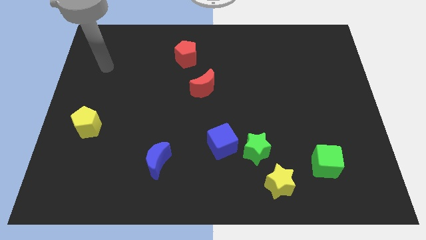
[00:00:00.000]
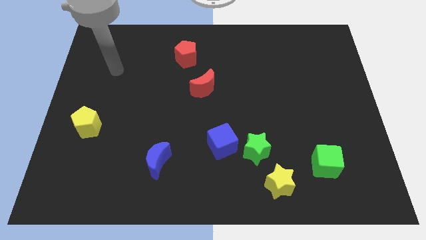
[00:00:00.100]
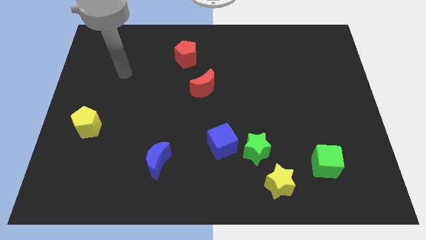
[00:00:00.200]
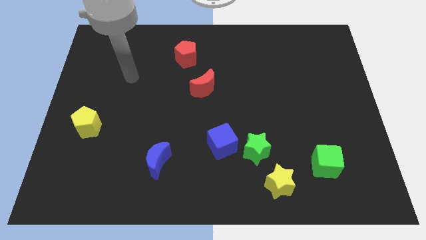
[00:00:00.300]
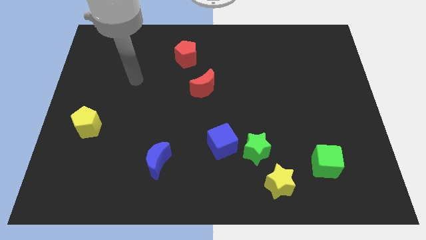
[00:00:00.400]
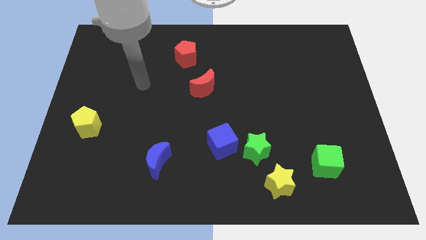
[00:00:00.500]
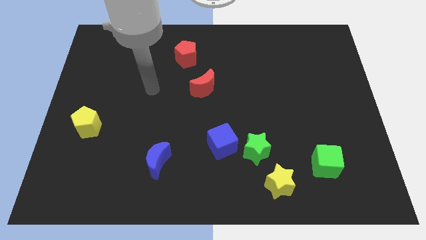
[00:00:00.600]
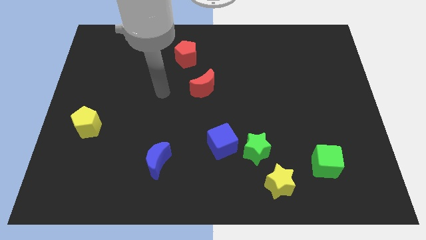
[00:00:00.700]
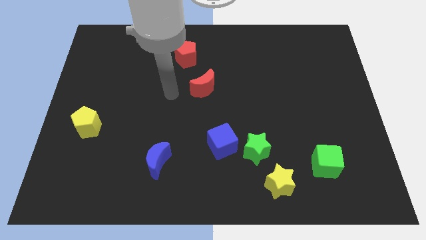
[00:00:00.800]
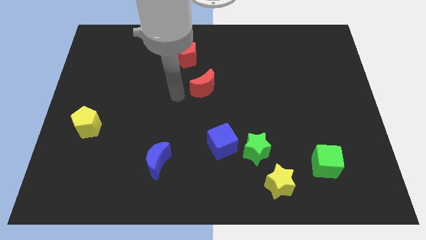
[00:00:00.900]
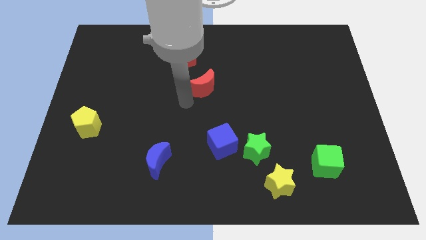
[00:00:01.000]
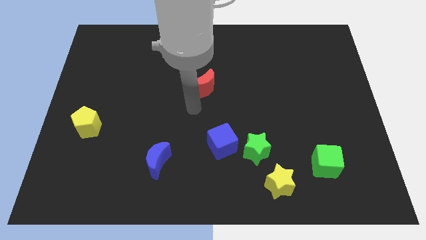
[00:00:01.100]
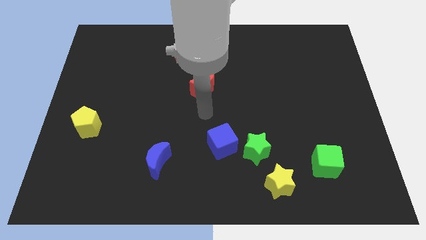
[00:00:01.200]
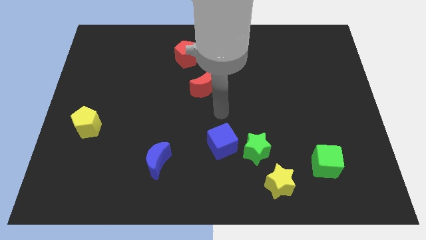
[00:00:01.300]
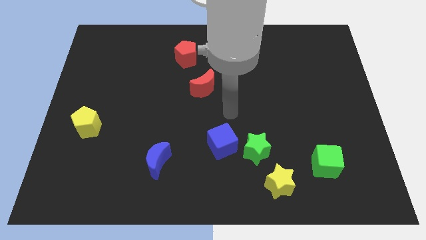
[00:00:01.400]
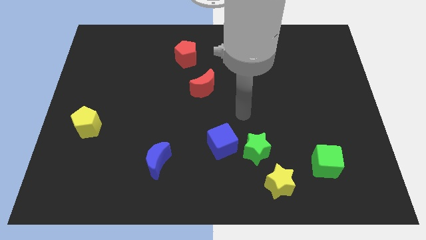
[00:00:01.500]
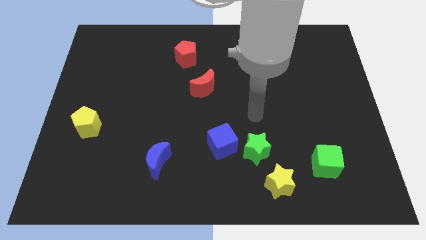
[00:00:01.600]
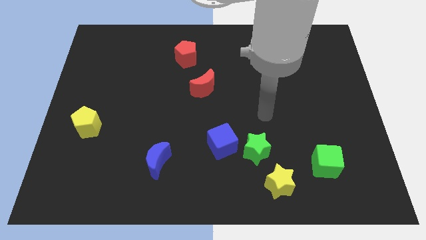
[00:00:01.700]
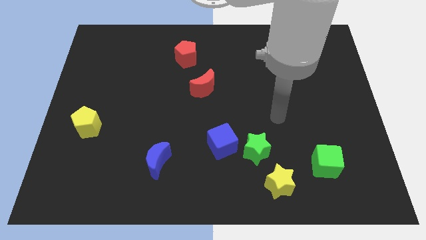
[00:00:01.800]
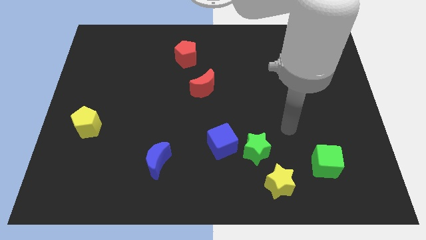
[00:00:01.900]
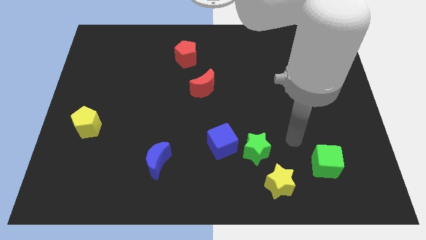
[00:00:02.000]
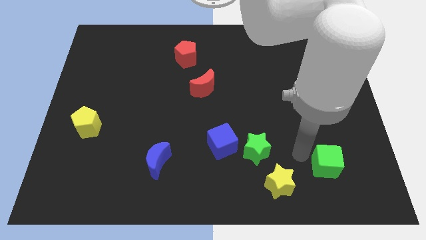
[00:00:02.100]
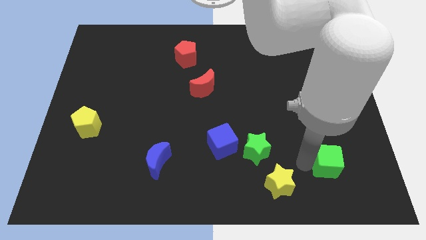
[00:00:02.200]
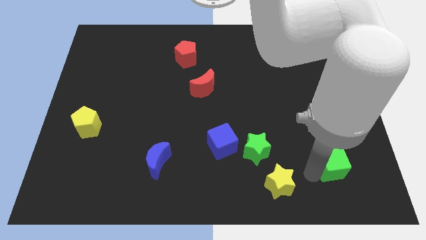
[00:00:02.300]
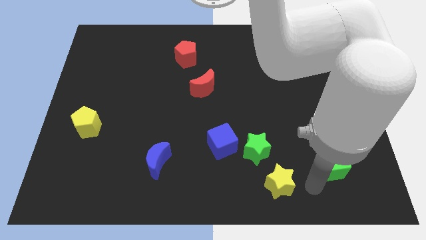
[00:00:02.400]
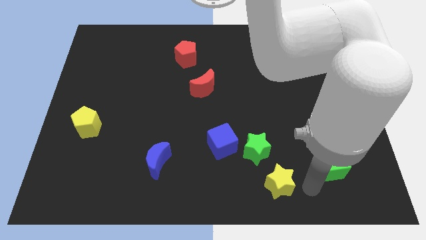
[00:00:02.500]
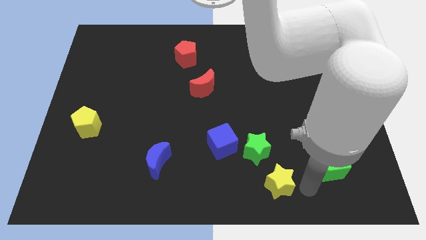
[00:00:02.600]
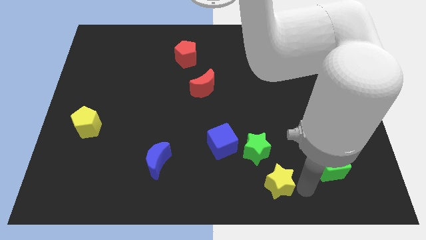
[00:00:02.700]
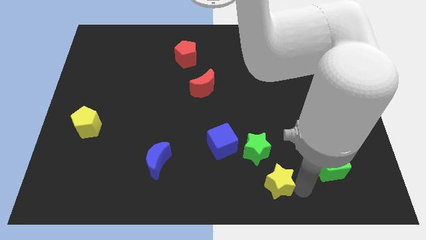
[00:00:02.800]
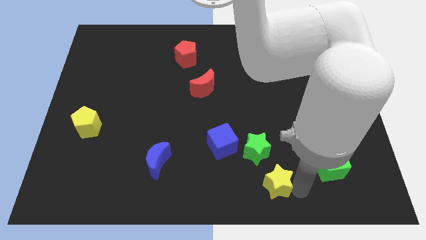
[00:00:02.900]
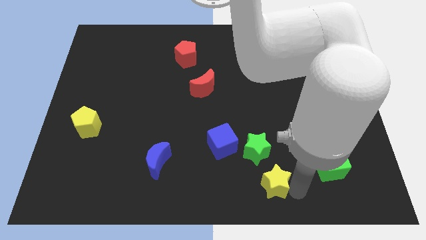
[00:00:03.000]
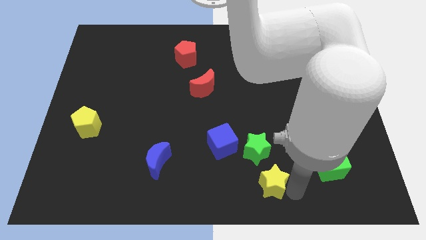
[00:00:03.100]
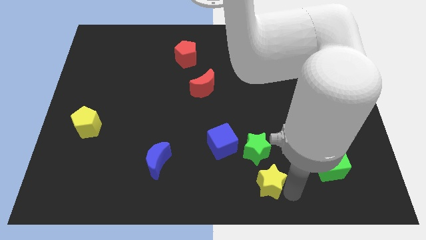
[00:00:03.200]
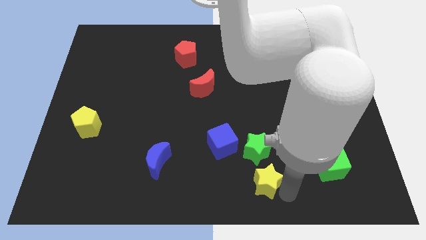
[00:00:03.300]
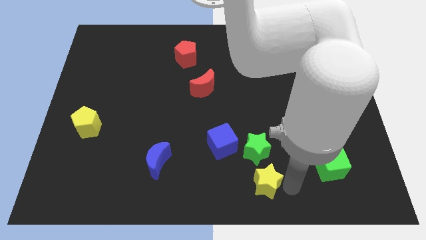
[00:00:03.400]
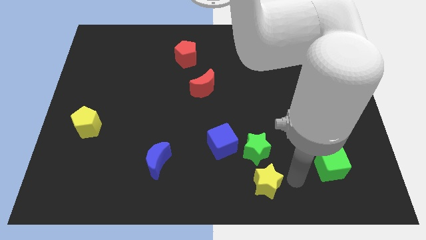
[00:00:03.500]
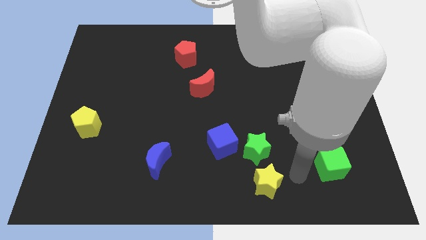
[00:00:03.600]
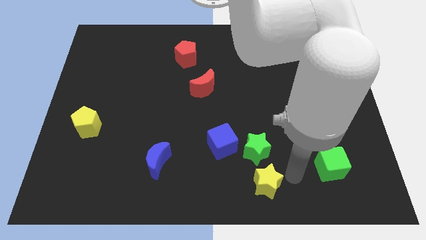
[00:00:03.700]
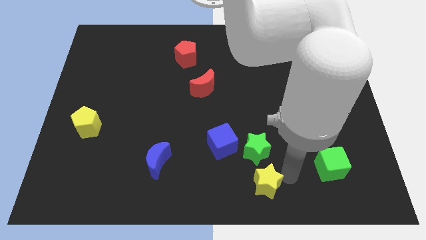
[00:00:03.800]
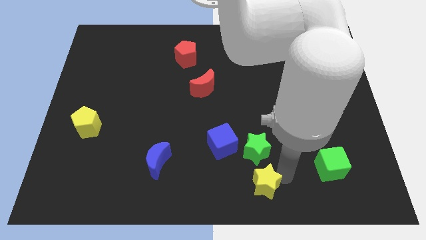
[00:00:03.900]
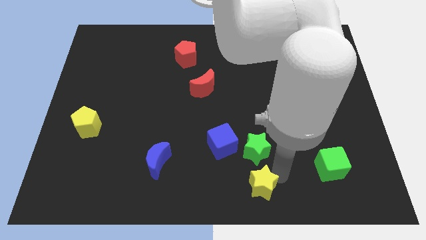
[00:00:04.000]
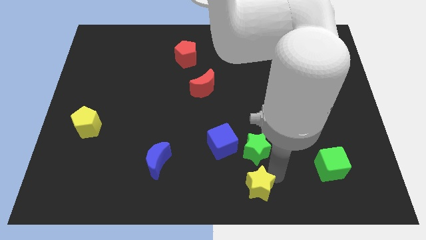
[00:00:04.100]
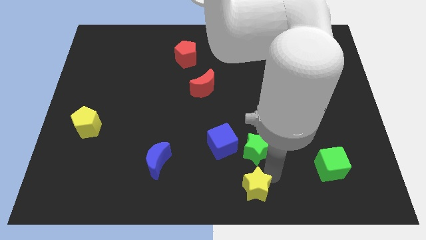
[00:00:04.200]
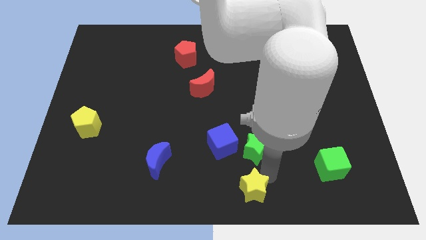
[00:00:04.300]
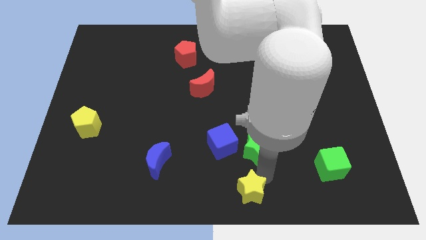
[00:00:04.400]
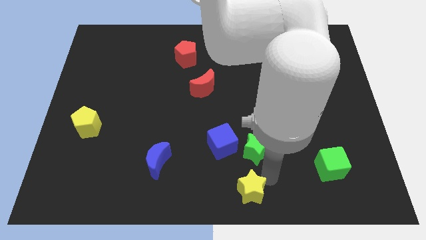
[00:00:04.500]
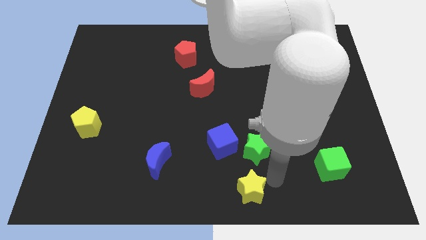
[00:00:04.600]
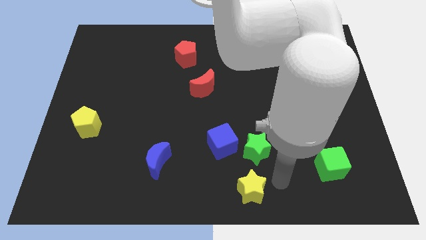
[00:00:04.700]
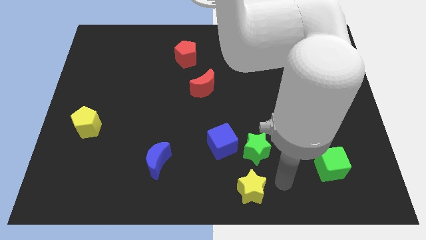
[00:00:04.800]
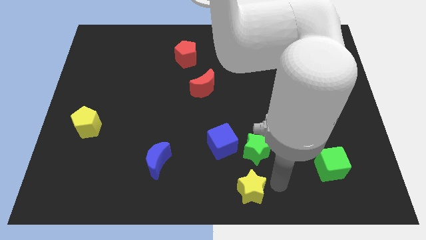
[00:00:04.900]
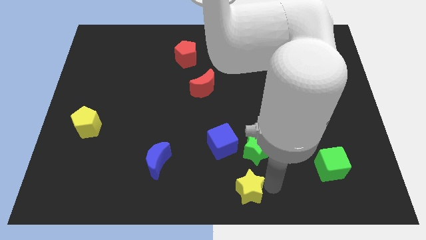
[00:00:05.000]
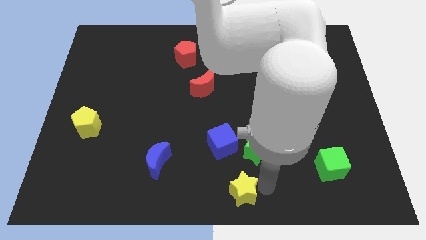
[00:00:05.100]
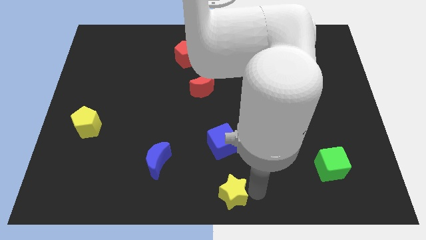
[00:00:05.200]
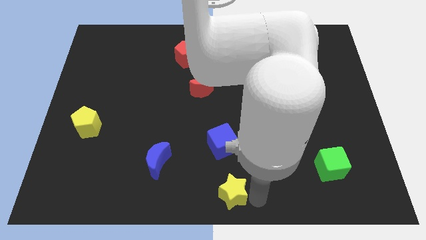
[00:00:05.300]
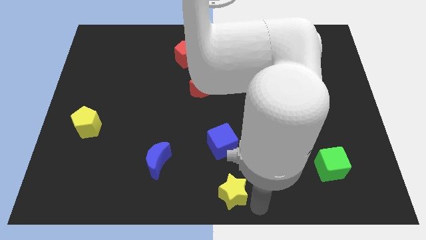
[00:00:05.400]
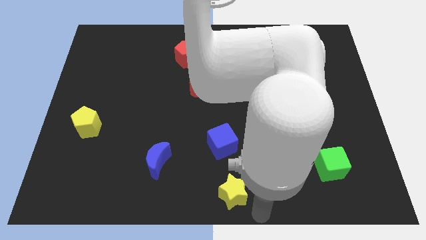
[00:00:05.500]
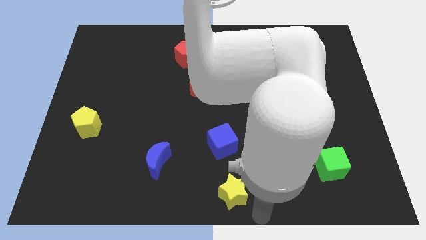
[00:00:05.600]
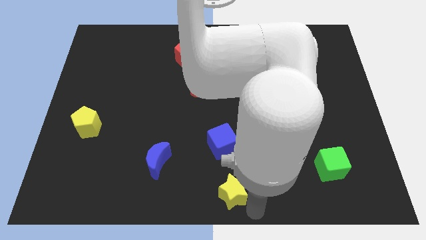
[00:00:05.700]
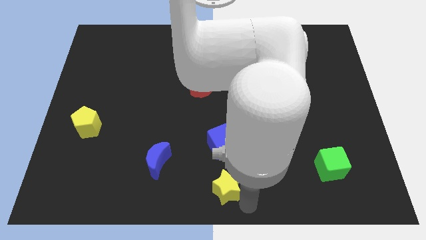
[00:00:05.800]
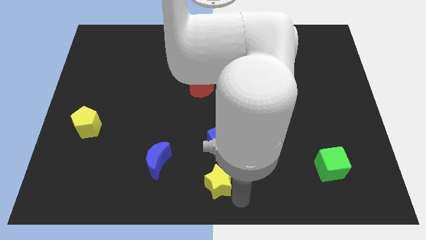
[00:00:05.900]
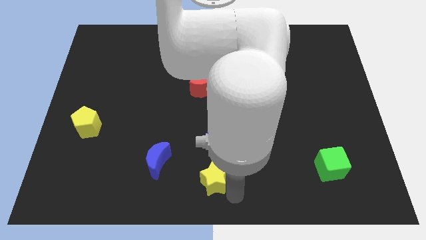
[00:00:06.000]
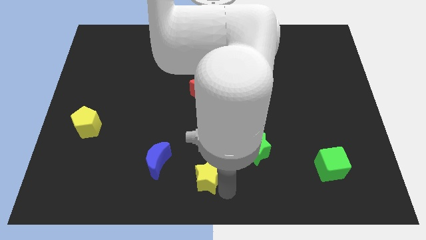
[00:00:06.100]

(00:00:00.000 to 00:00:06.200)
move the yellow star a little up and to the left diagonally

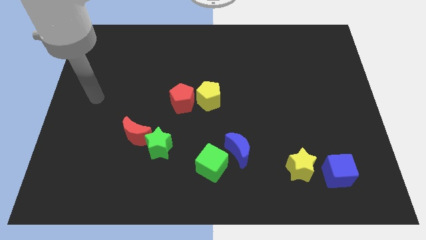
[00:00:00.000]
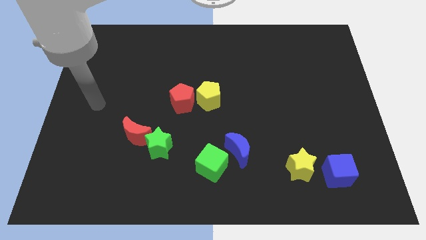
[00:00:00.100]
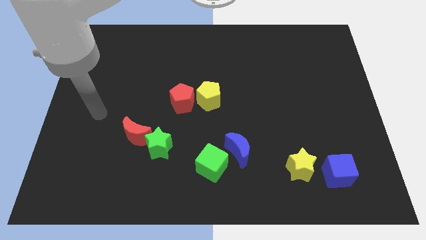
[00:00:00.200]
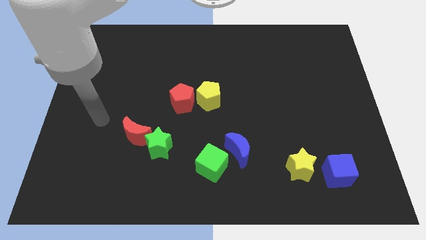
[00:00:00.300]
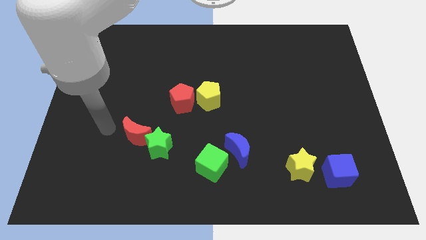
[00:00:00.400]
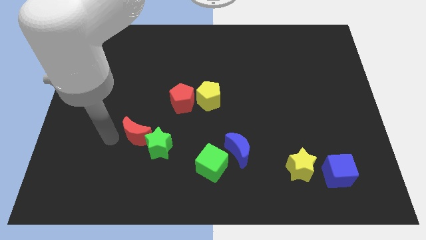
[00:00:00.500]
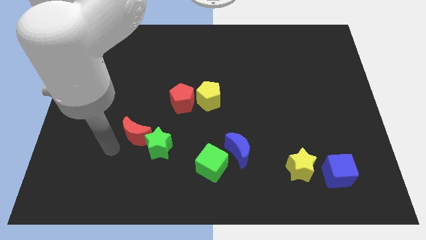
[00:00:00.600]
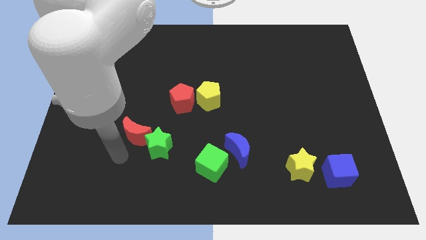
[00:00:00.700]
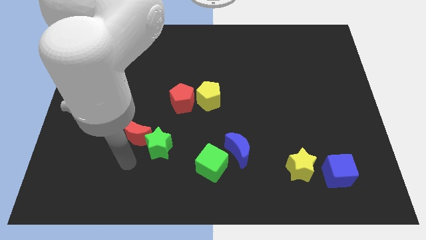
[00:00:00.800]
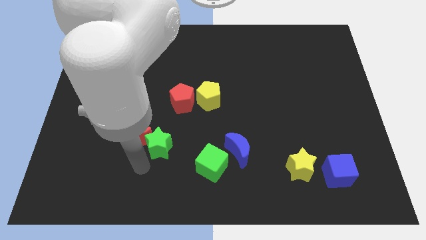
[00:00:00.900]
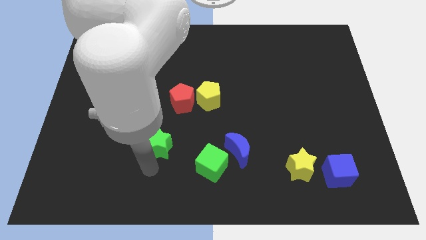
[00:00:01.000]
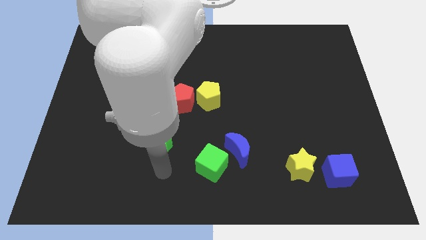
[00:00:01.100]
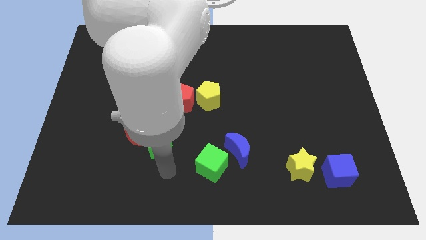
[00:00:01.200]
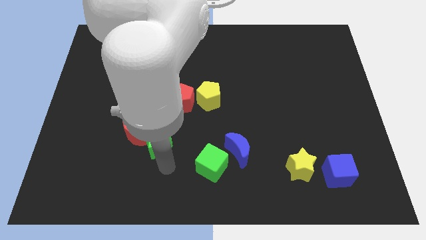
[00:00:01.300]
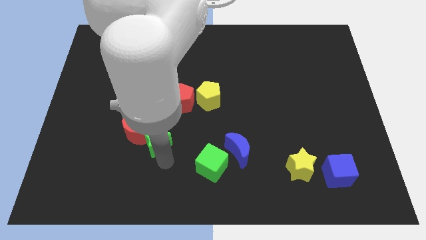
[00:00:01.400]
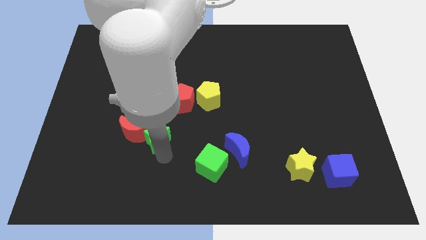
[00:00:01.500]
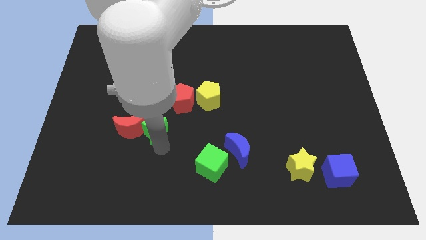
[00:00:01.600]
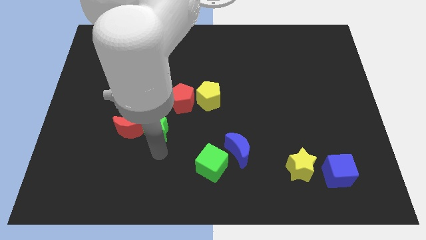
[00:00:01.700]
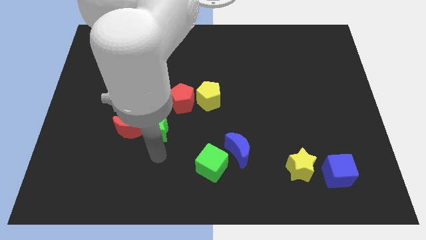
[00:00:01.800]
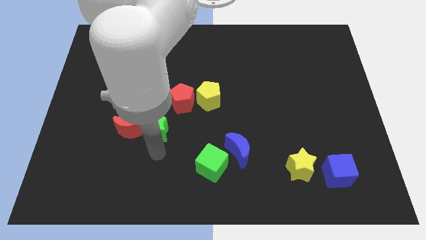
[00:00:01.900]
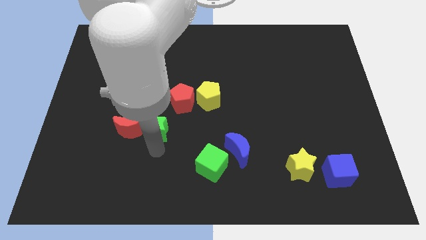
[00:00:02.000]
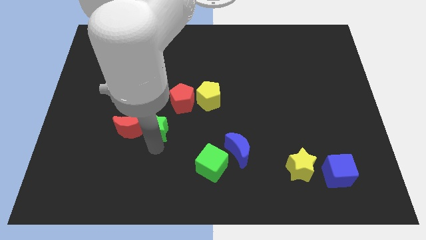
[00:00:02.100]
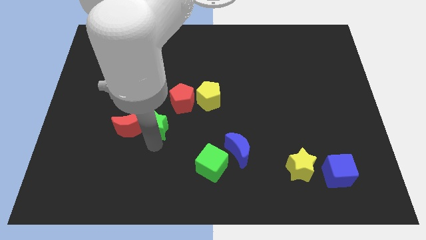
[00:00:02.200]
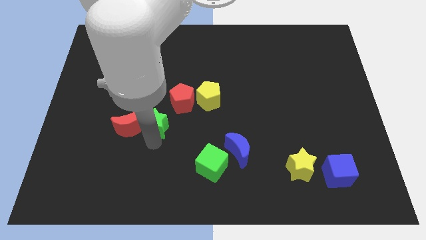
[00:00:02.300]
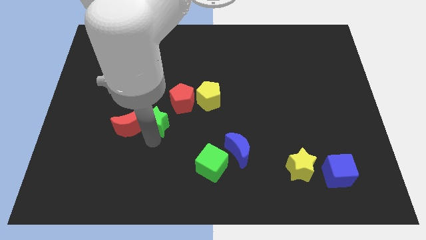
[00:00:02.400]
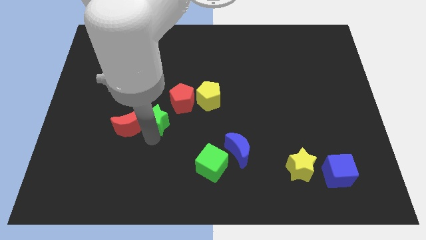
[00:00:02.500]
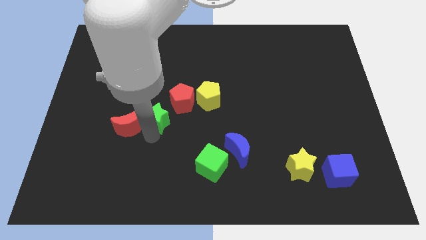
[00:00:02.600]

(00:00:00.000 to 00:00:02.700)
push the green star a little bit upwards
